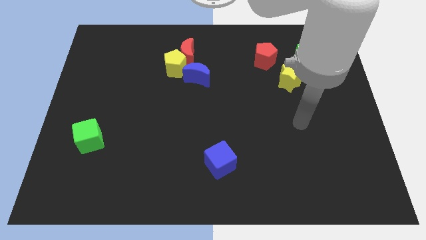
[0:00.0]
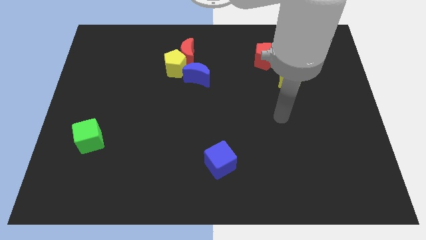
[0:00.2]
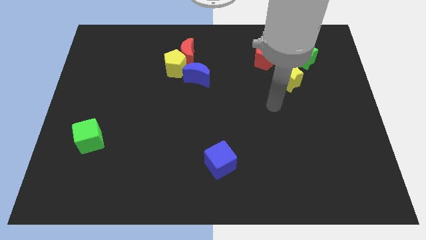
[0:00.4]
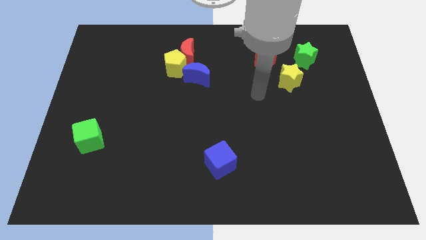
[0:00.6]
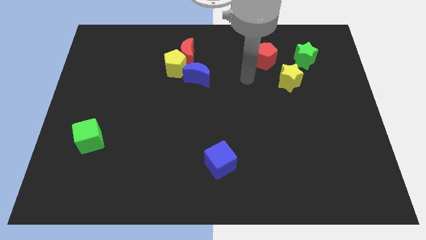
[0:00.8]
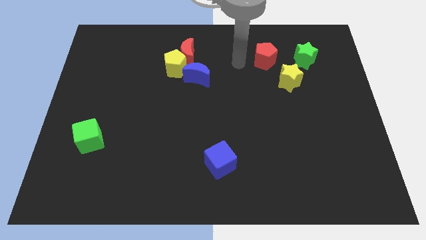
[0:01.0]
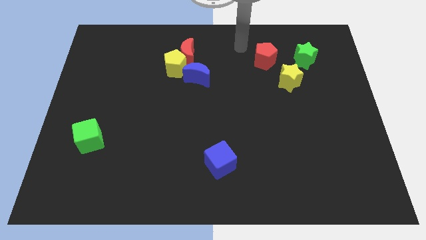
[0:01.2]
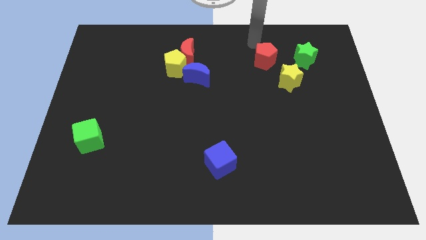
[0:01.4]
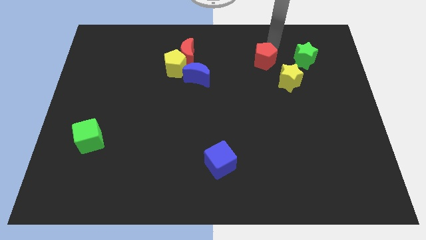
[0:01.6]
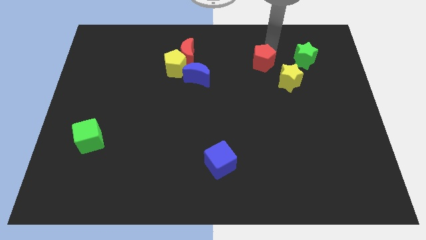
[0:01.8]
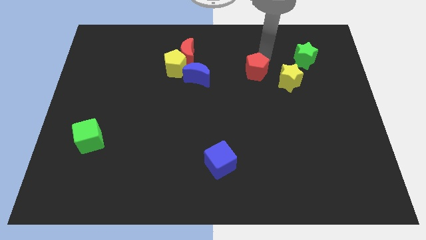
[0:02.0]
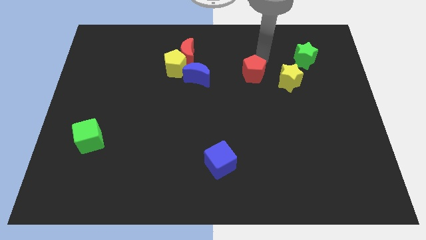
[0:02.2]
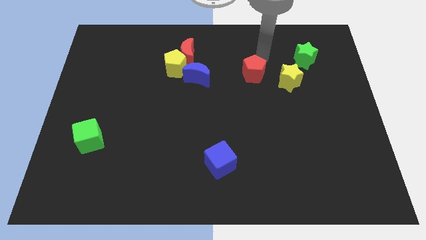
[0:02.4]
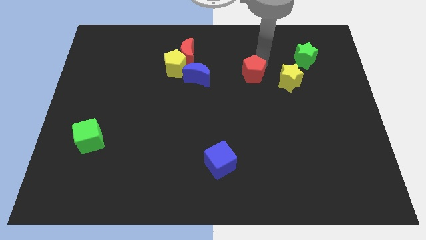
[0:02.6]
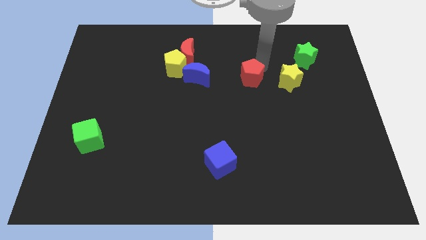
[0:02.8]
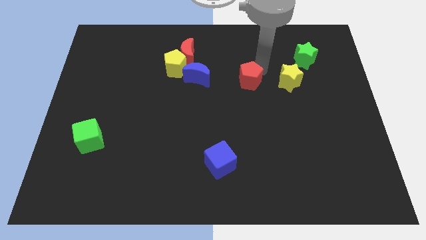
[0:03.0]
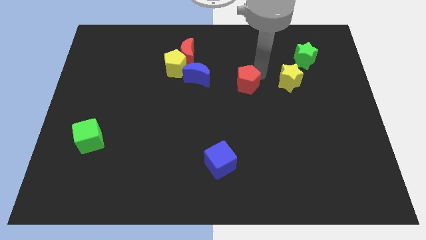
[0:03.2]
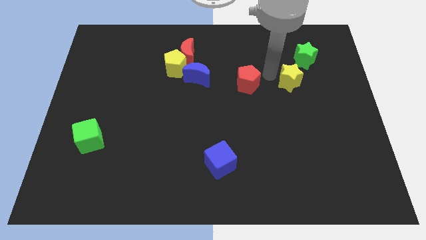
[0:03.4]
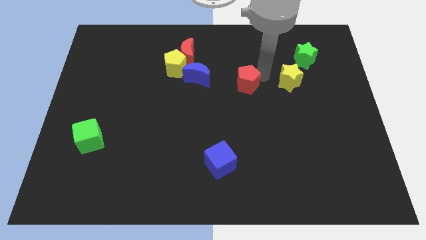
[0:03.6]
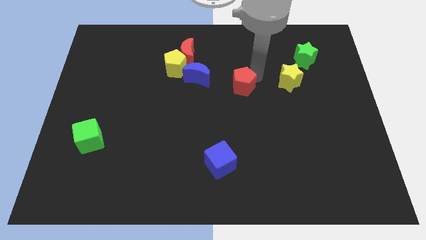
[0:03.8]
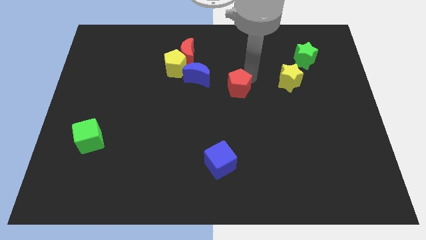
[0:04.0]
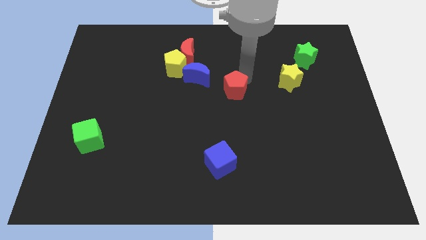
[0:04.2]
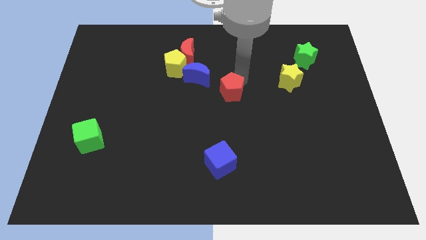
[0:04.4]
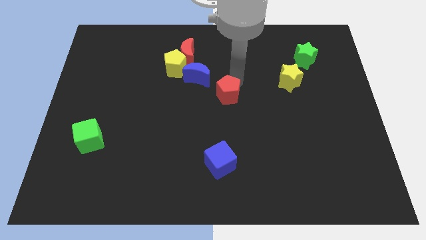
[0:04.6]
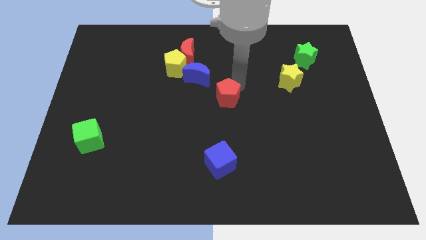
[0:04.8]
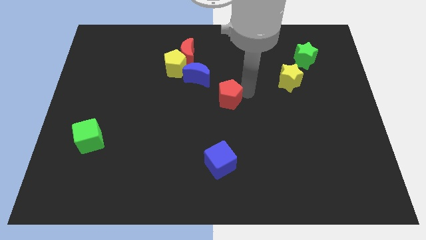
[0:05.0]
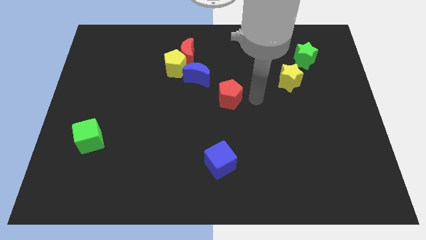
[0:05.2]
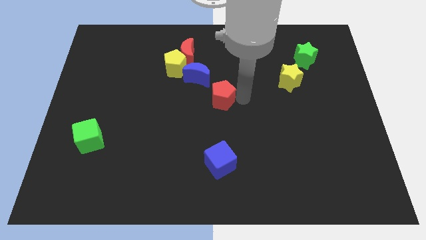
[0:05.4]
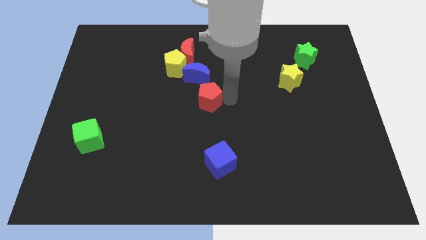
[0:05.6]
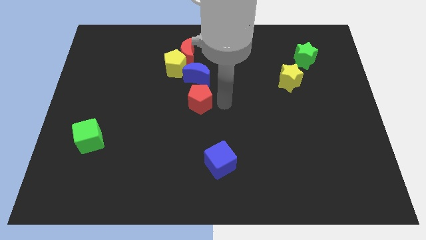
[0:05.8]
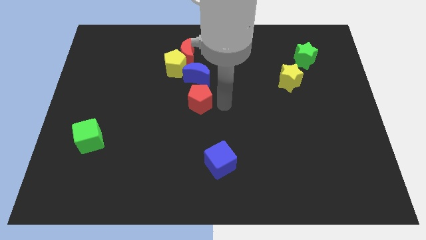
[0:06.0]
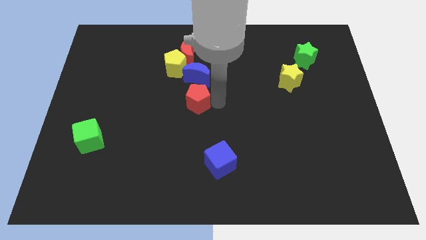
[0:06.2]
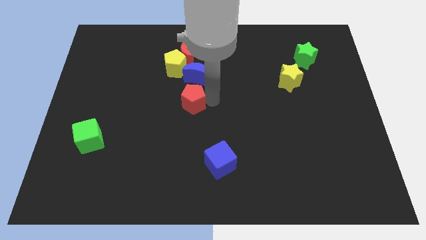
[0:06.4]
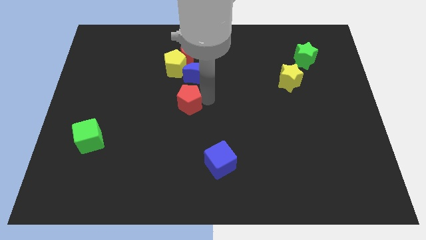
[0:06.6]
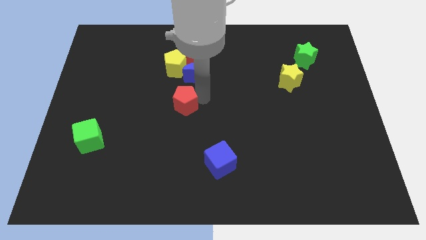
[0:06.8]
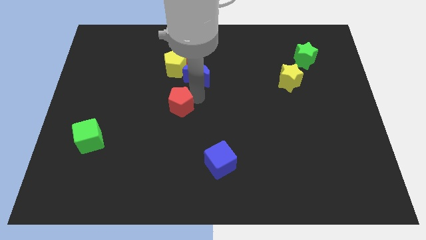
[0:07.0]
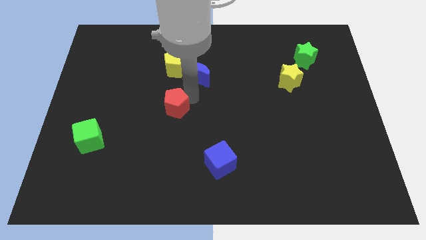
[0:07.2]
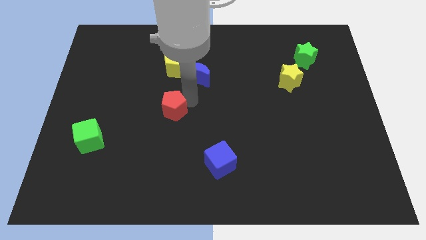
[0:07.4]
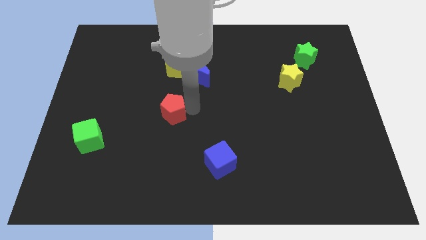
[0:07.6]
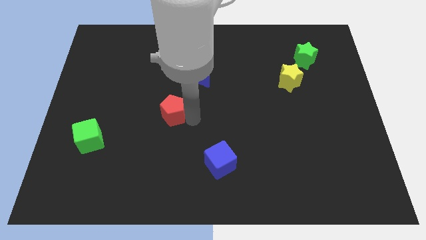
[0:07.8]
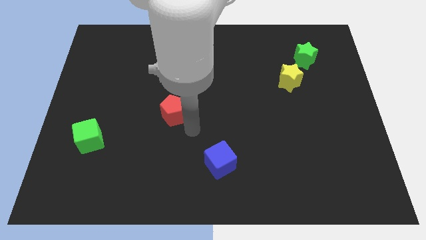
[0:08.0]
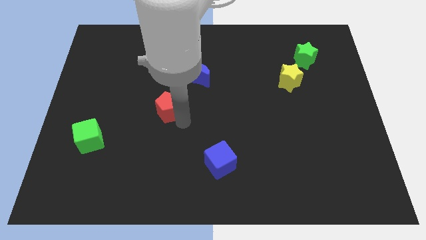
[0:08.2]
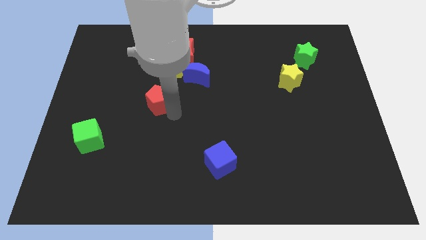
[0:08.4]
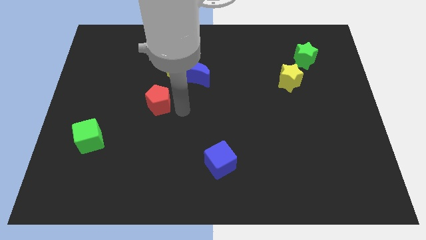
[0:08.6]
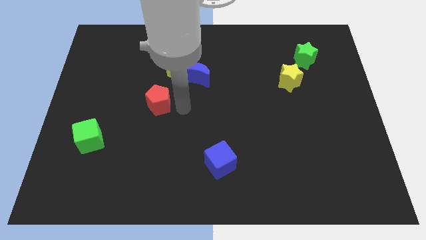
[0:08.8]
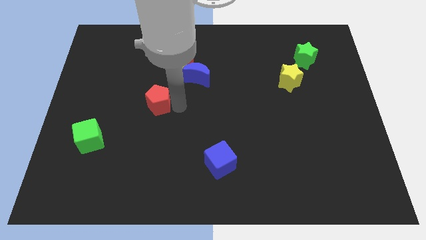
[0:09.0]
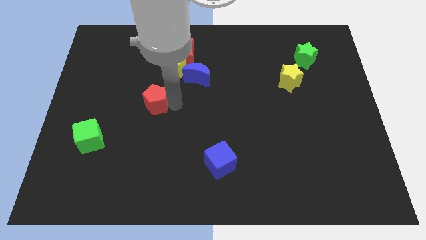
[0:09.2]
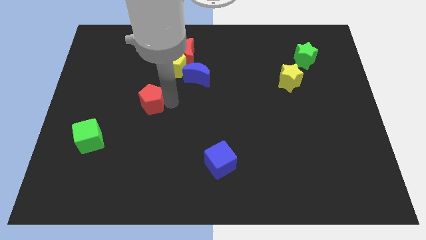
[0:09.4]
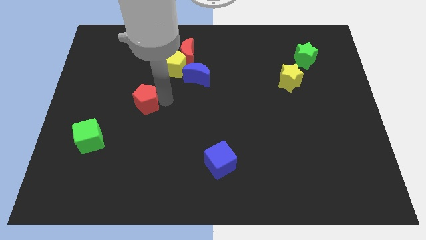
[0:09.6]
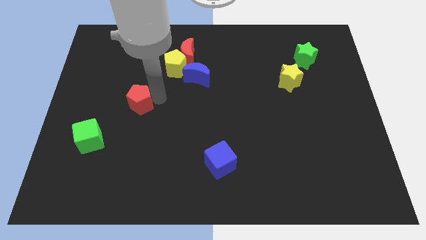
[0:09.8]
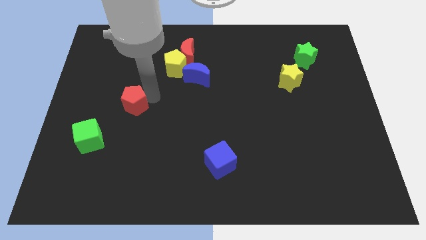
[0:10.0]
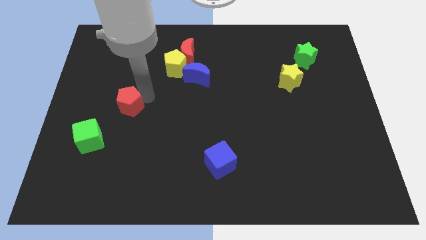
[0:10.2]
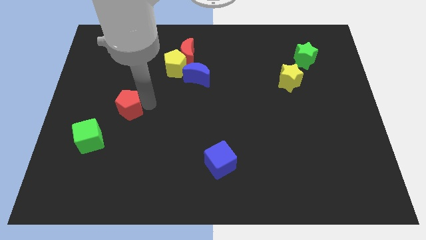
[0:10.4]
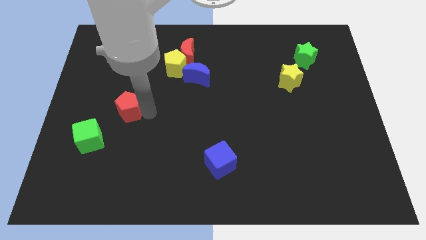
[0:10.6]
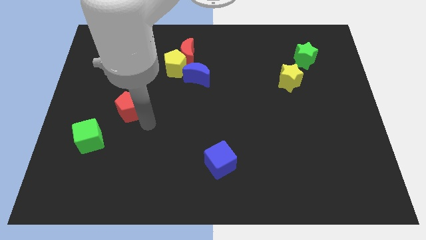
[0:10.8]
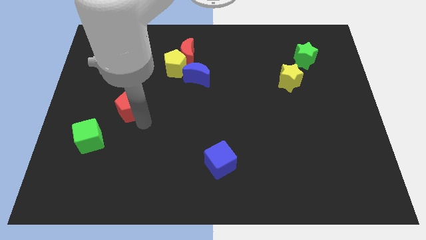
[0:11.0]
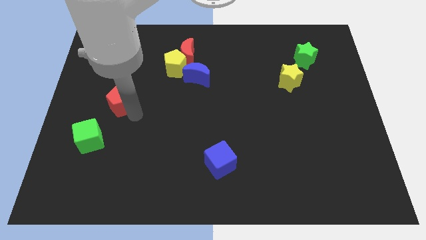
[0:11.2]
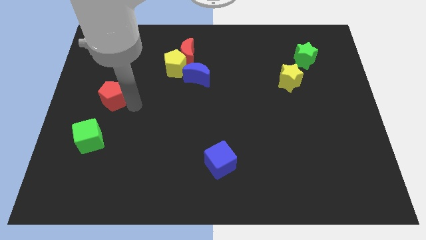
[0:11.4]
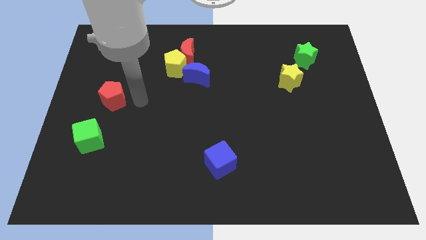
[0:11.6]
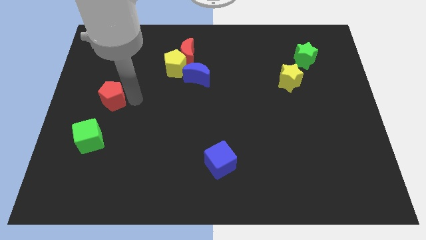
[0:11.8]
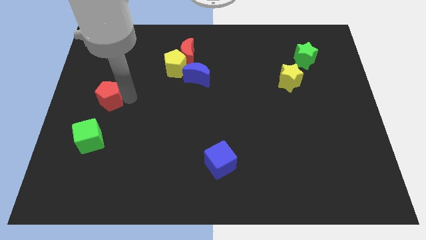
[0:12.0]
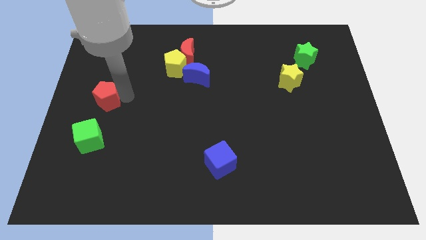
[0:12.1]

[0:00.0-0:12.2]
push the red pentagon to the left side
